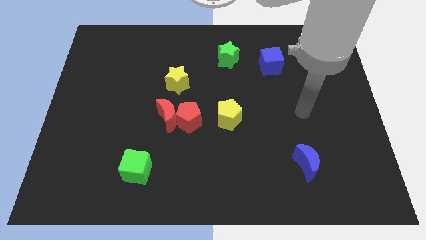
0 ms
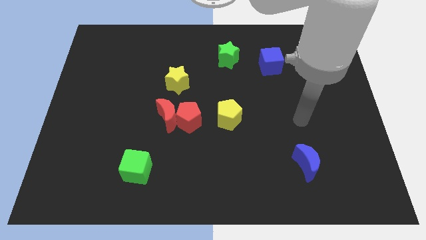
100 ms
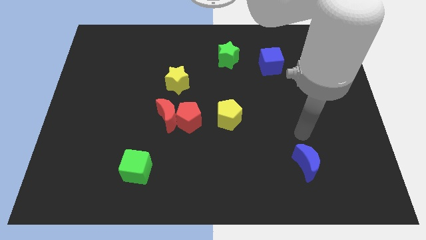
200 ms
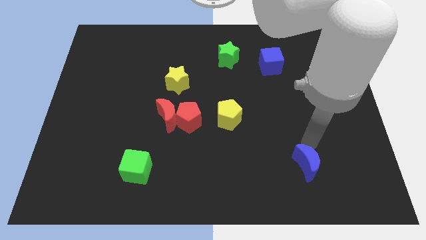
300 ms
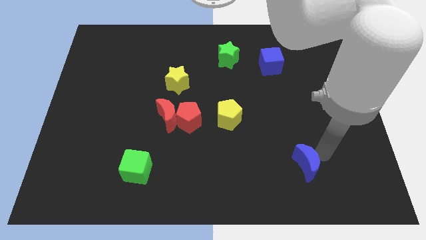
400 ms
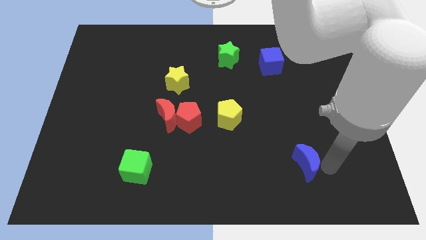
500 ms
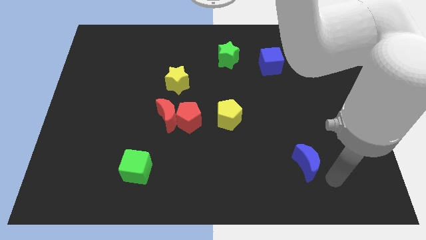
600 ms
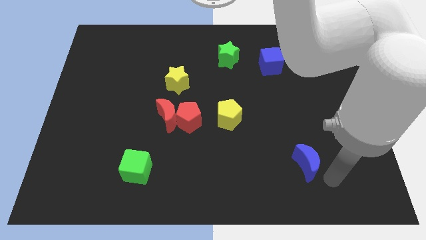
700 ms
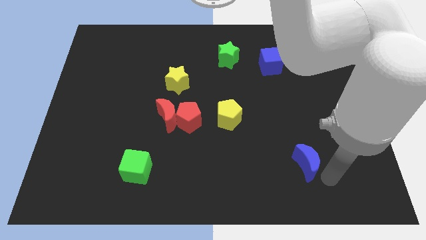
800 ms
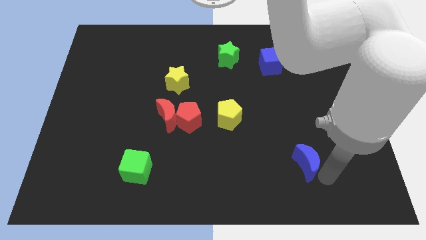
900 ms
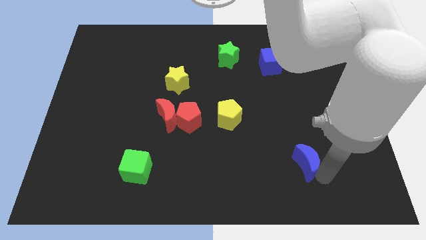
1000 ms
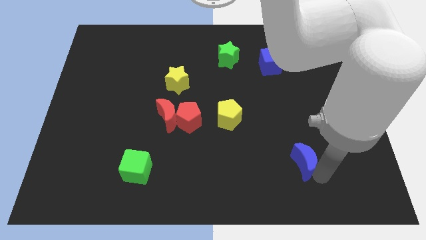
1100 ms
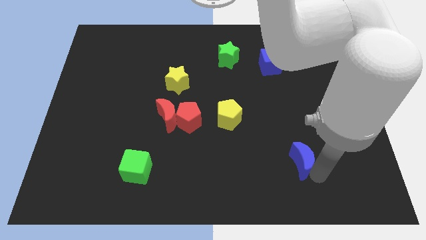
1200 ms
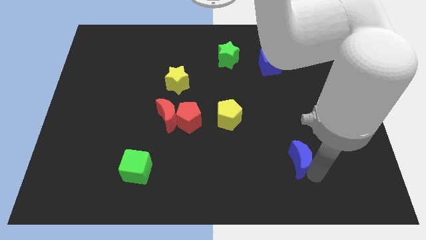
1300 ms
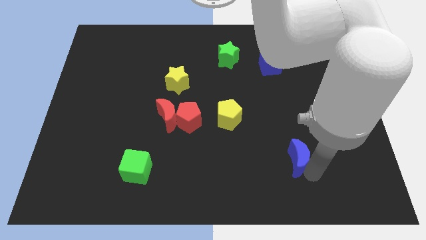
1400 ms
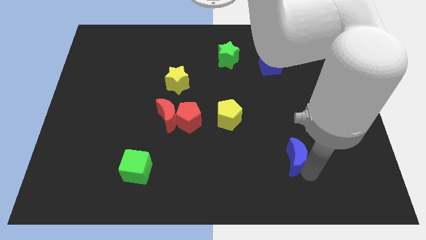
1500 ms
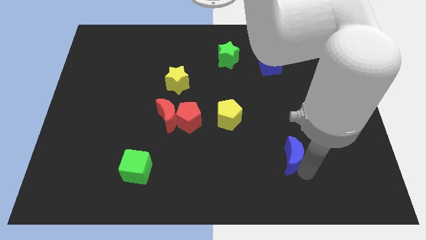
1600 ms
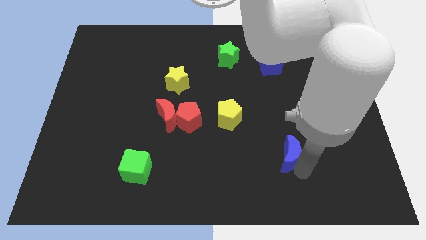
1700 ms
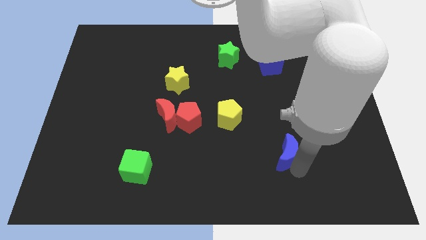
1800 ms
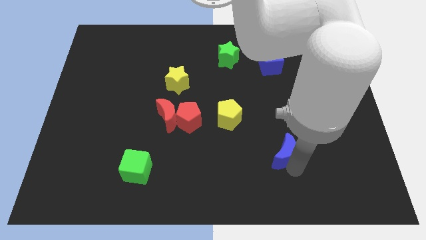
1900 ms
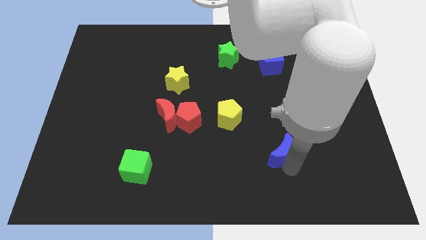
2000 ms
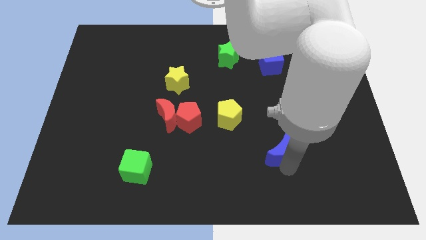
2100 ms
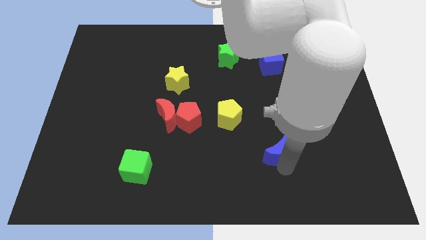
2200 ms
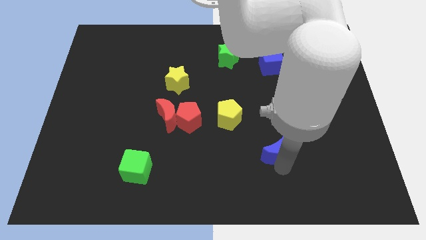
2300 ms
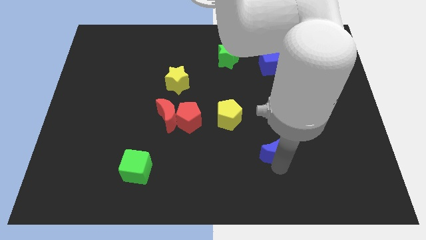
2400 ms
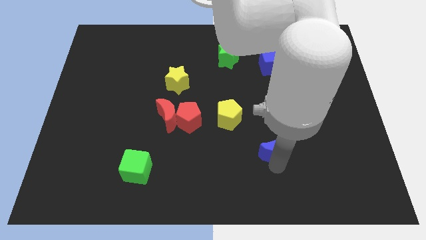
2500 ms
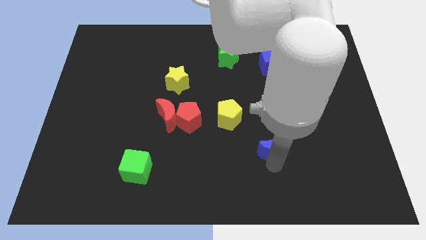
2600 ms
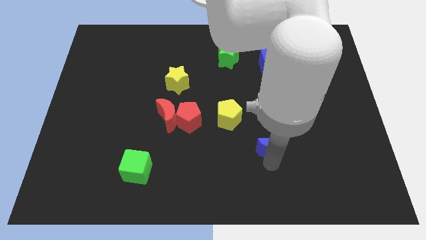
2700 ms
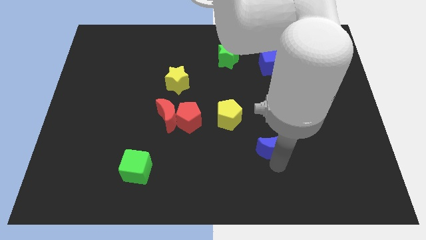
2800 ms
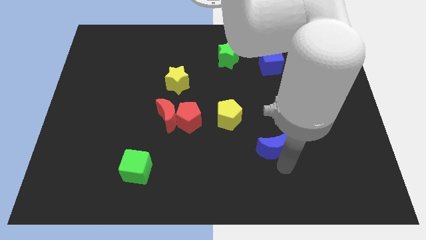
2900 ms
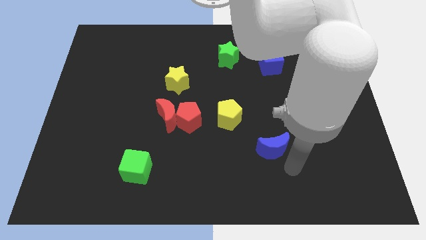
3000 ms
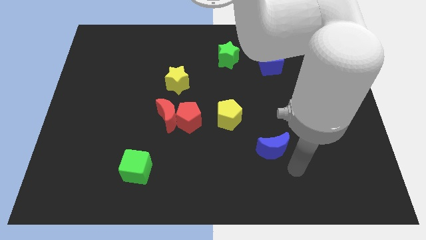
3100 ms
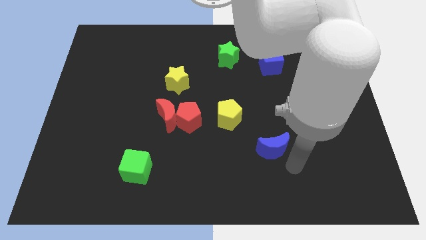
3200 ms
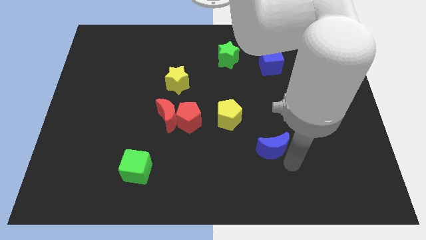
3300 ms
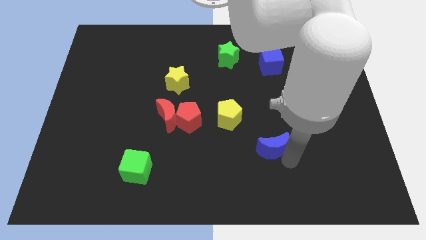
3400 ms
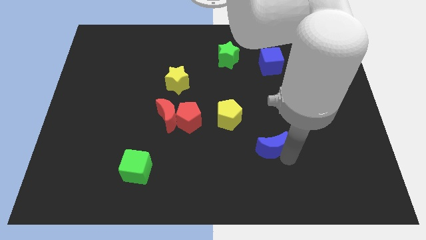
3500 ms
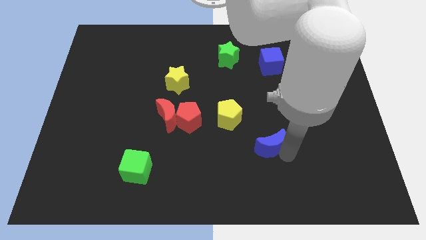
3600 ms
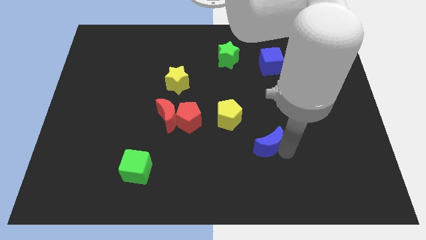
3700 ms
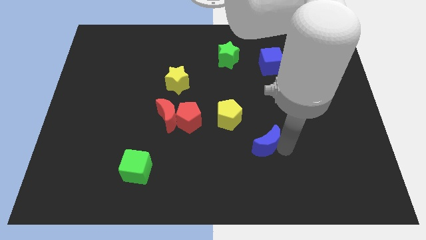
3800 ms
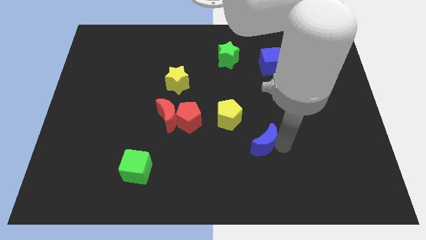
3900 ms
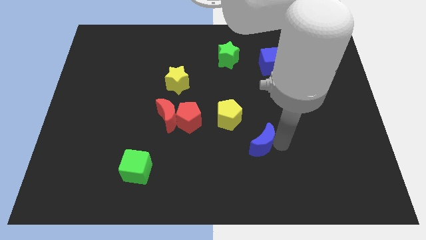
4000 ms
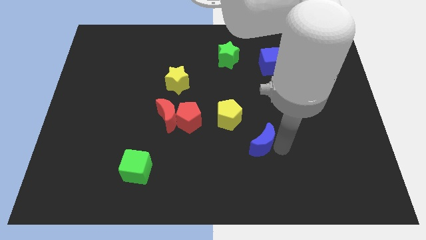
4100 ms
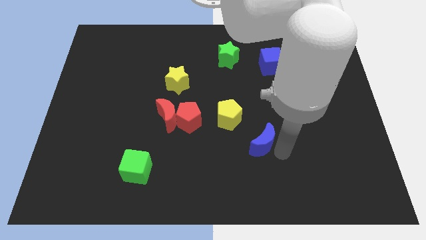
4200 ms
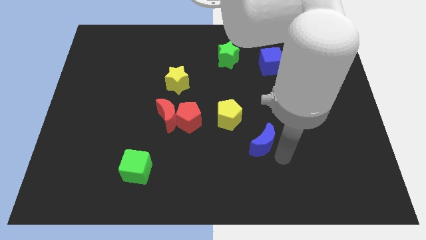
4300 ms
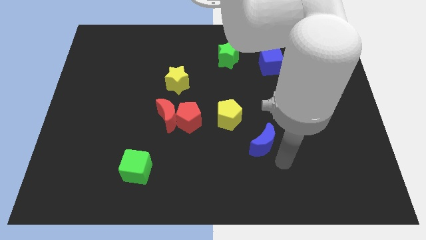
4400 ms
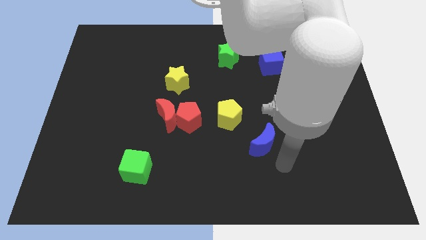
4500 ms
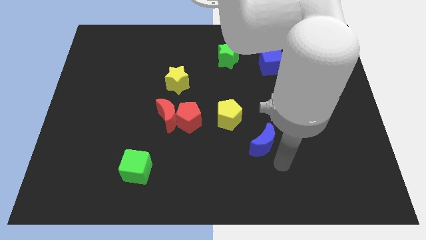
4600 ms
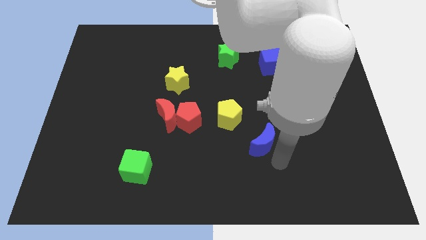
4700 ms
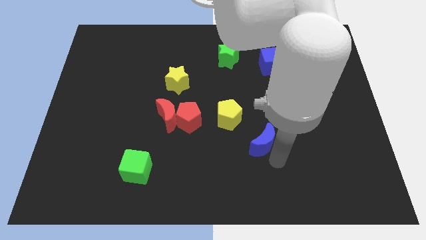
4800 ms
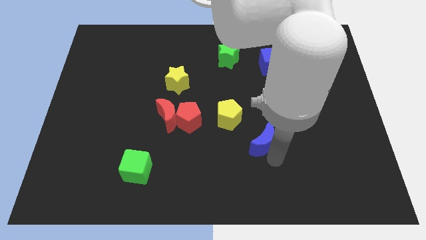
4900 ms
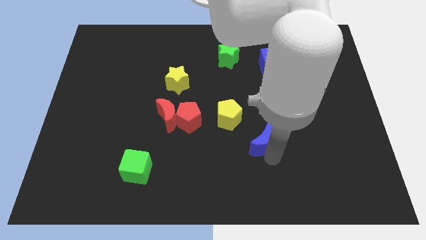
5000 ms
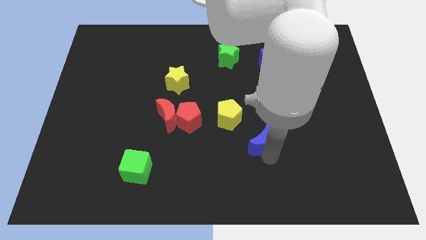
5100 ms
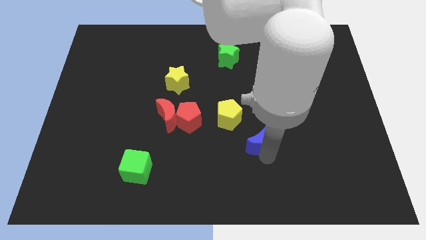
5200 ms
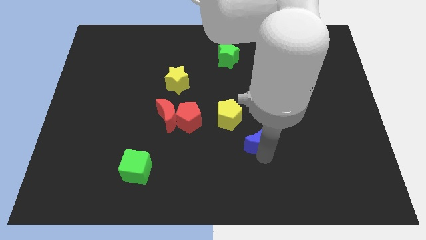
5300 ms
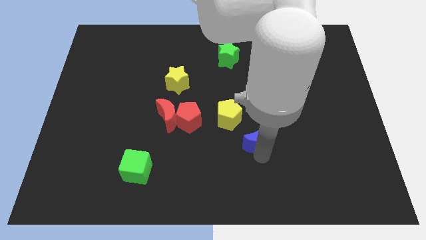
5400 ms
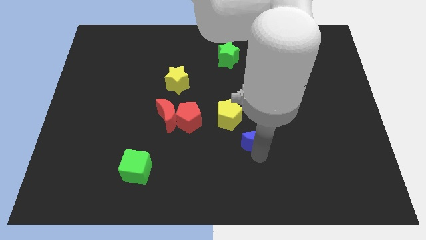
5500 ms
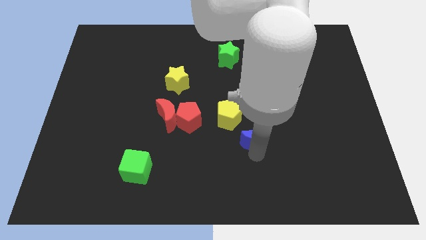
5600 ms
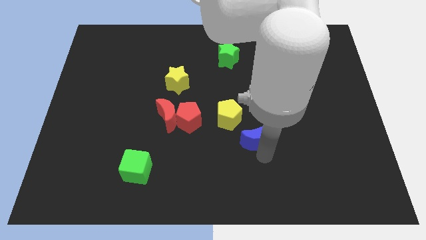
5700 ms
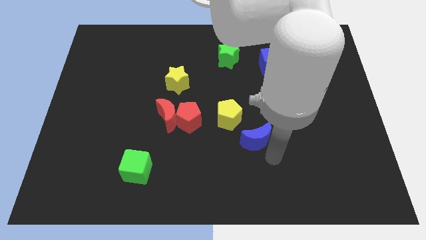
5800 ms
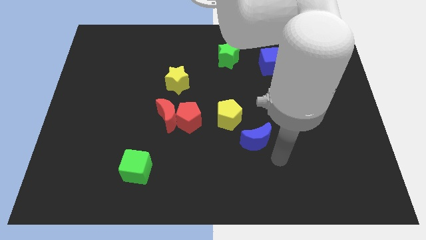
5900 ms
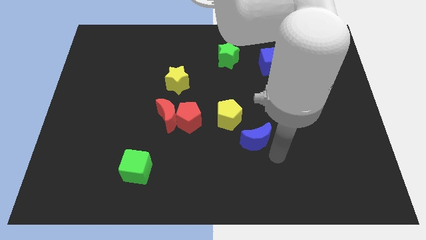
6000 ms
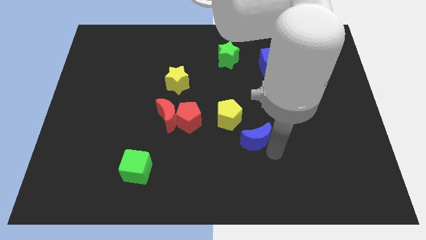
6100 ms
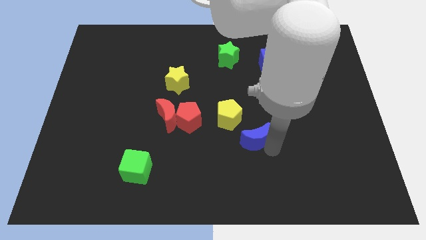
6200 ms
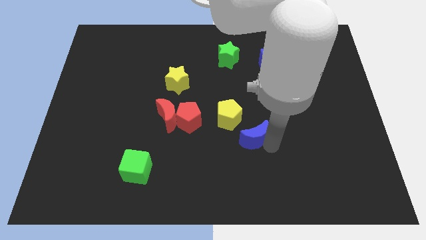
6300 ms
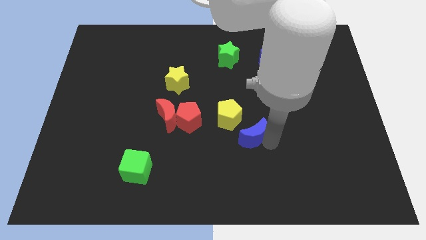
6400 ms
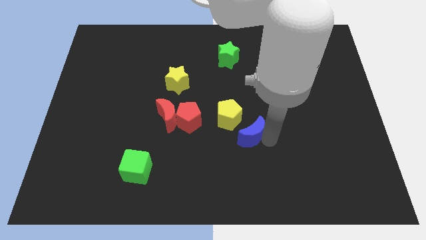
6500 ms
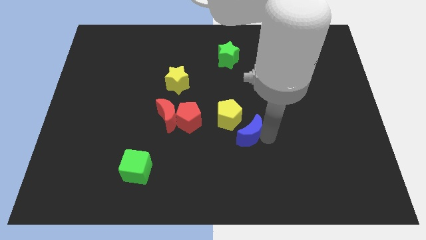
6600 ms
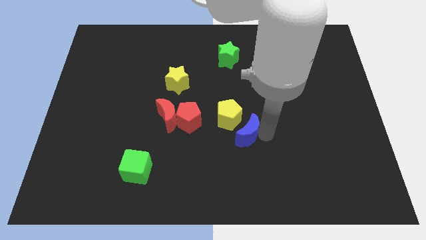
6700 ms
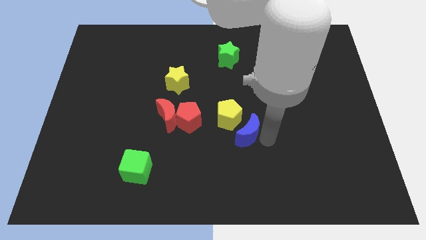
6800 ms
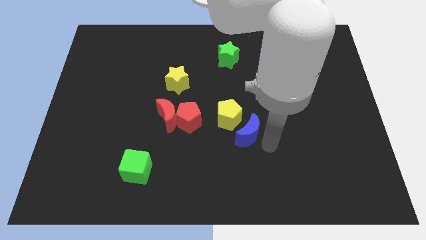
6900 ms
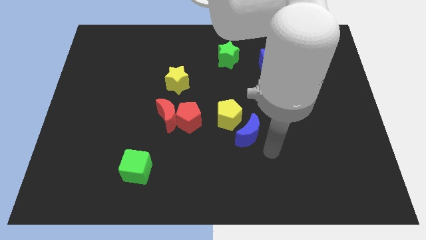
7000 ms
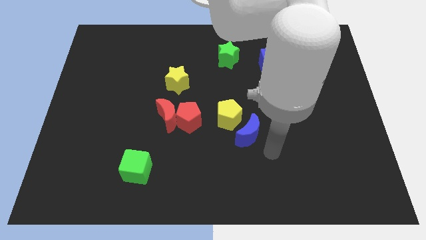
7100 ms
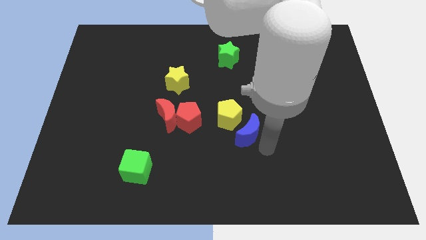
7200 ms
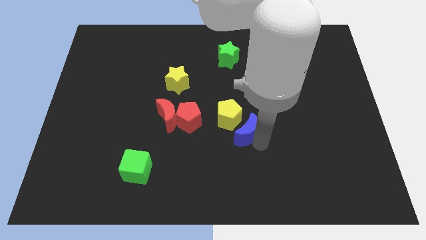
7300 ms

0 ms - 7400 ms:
push the blue moon to the yellow pentagon
